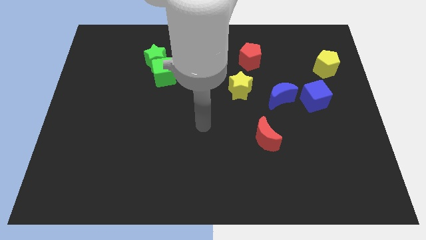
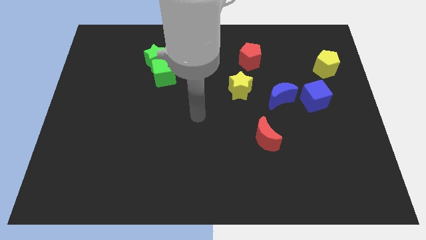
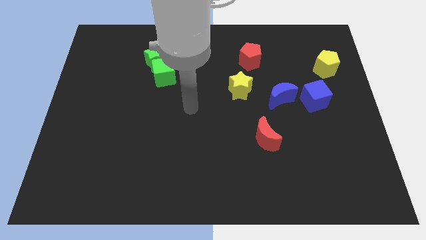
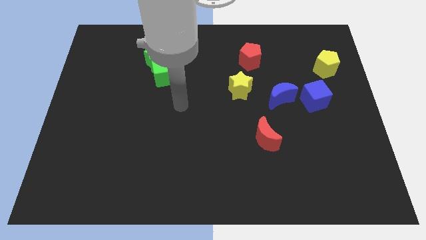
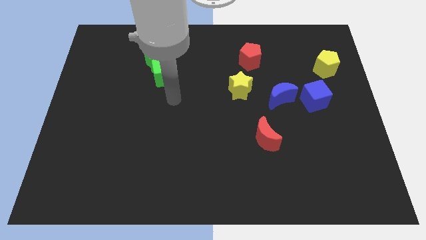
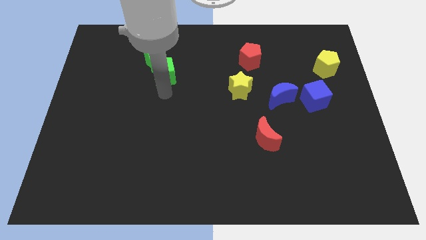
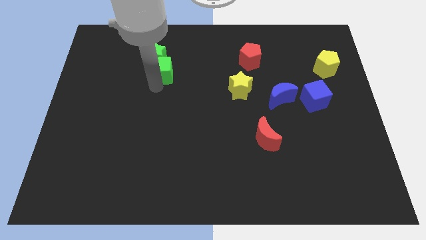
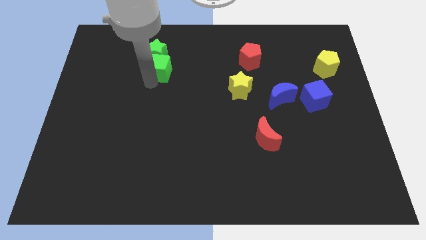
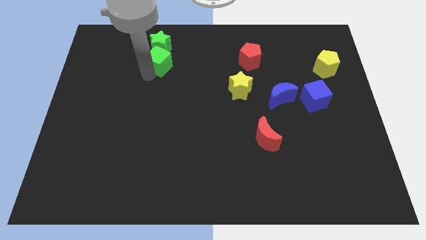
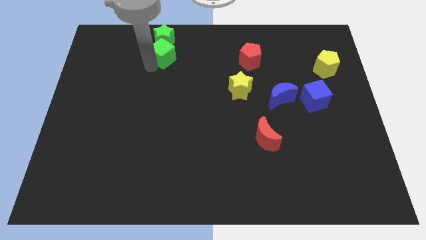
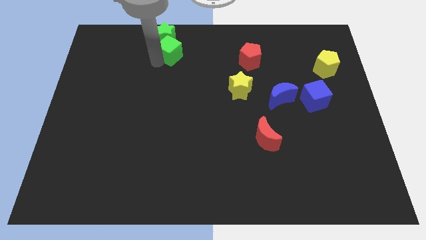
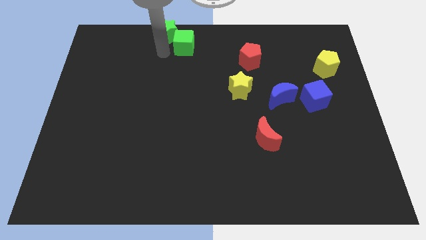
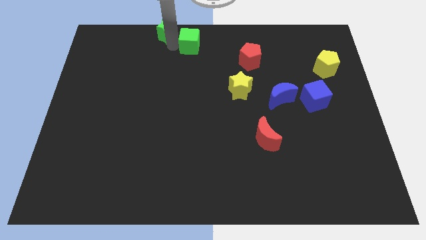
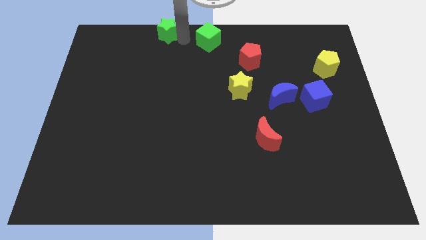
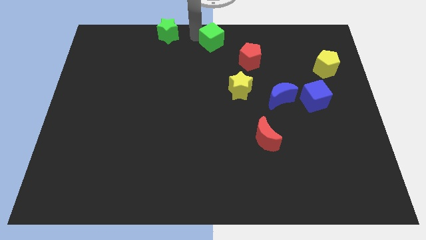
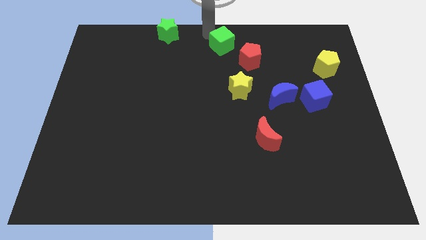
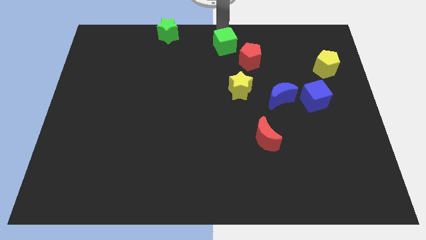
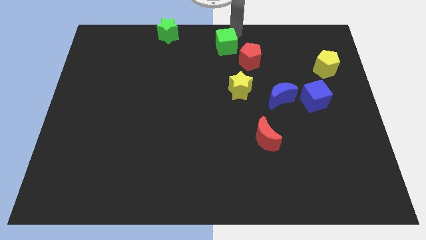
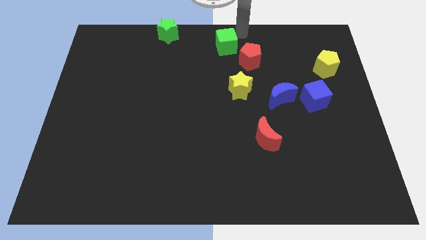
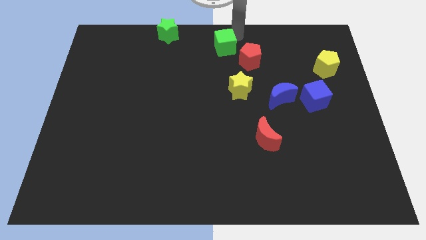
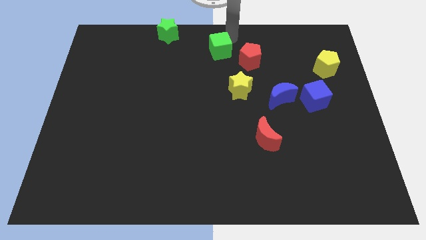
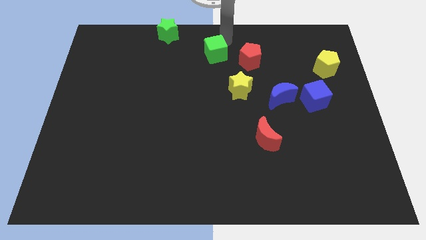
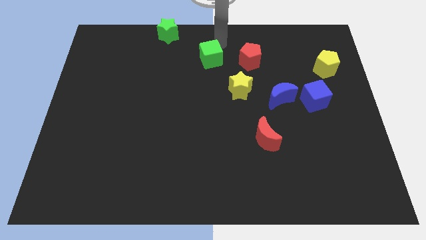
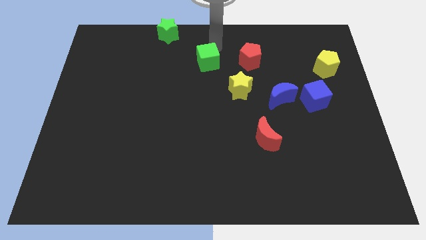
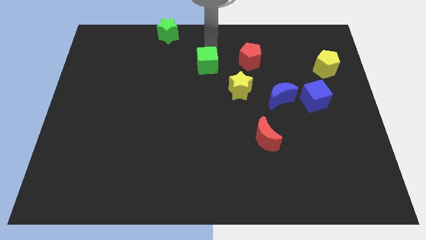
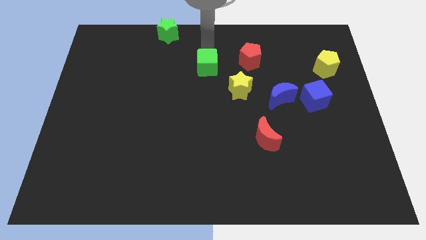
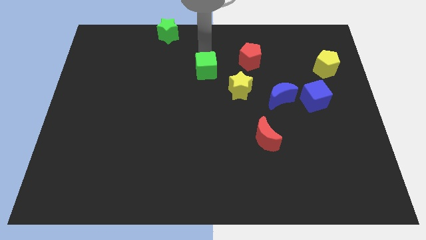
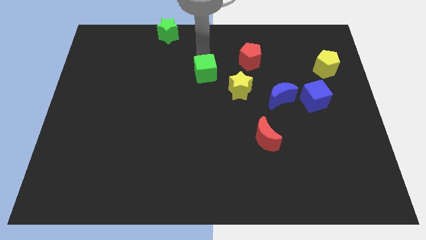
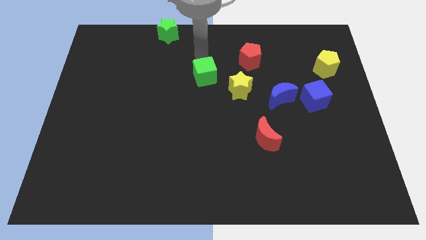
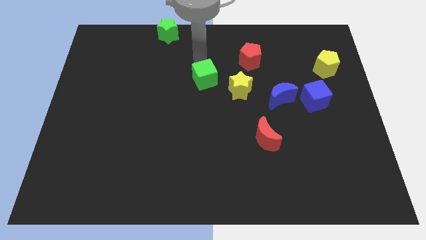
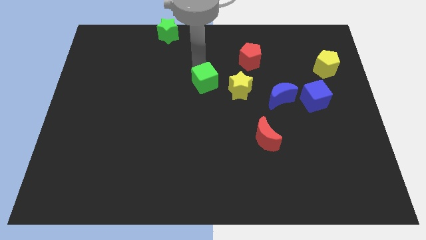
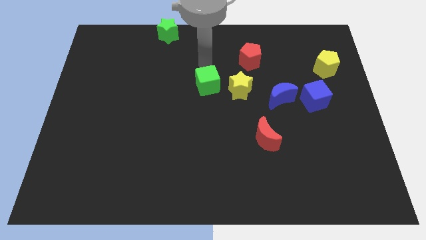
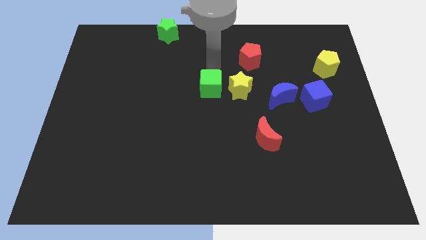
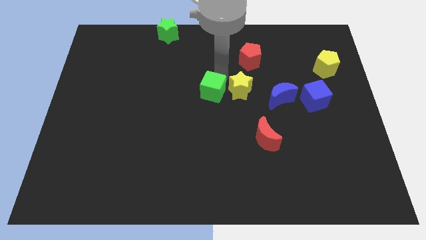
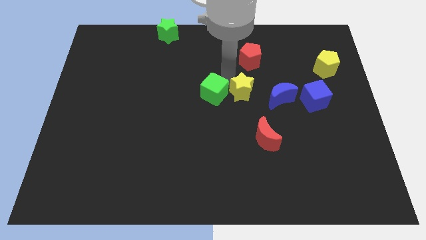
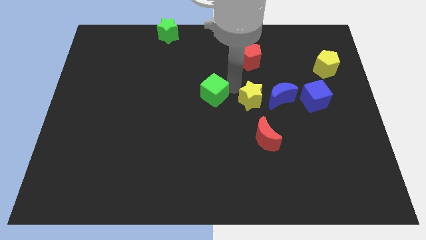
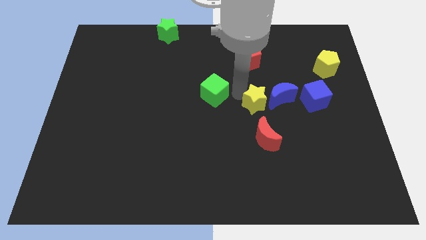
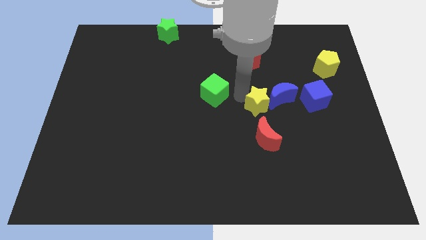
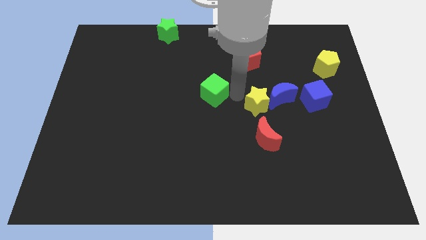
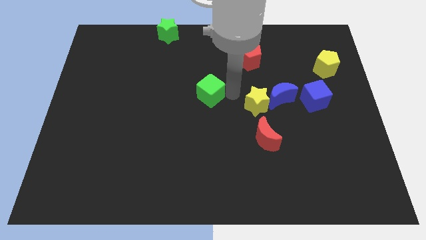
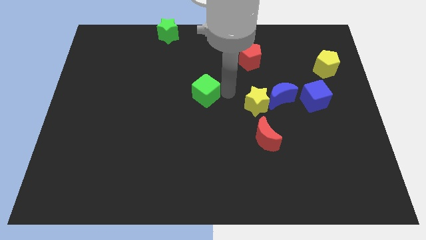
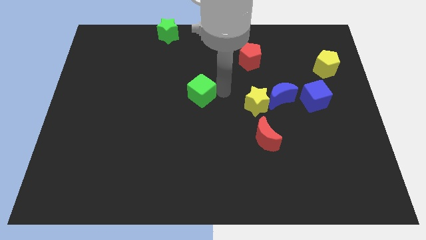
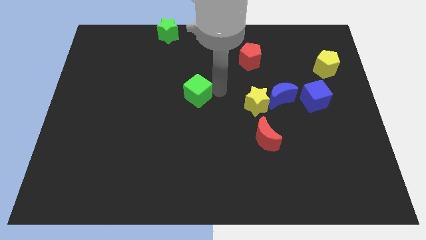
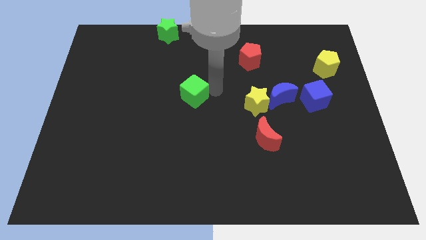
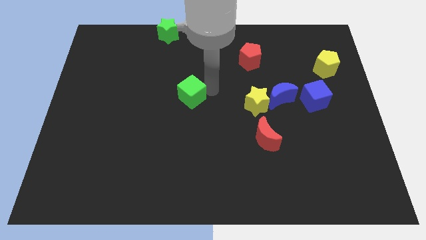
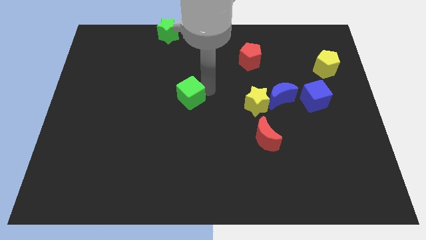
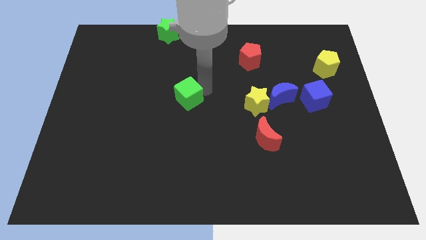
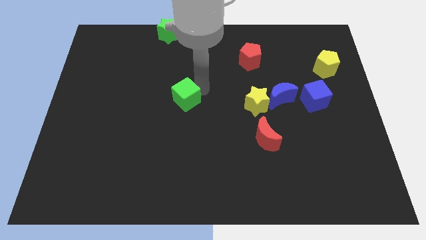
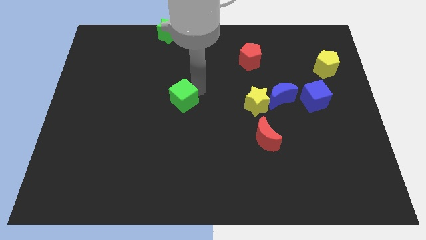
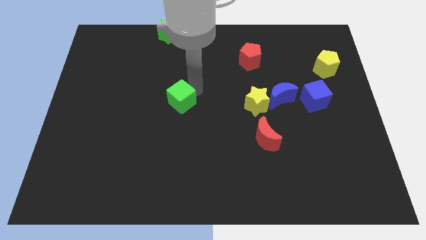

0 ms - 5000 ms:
slide the green cube downwards somewhat

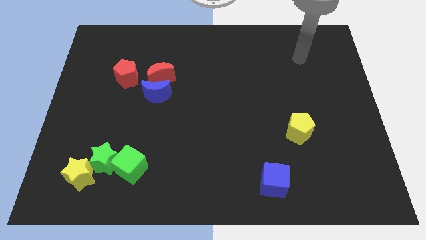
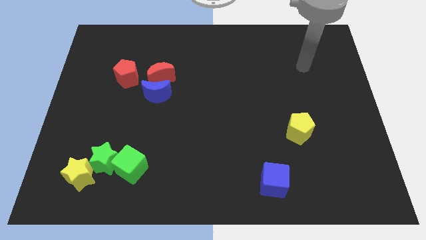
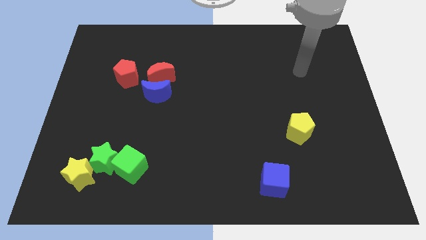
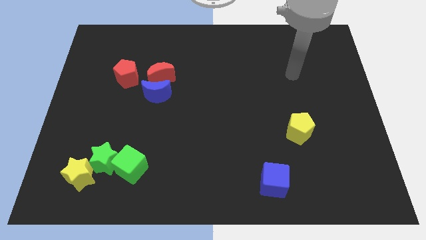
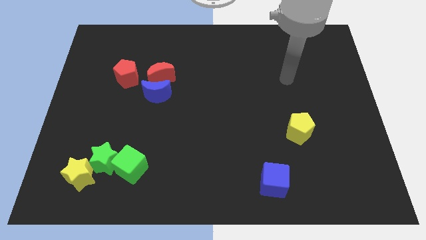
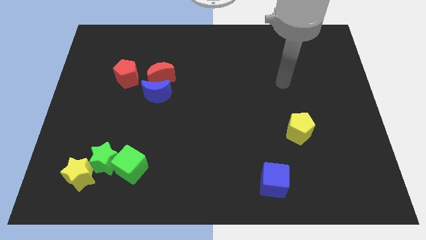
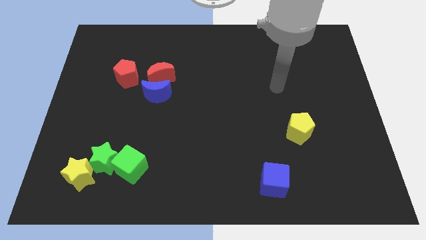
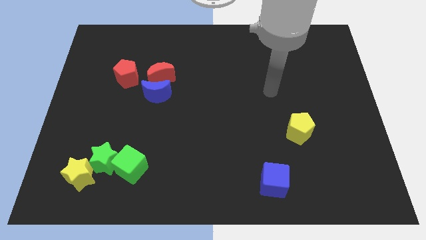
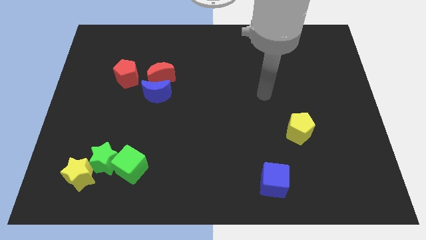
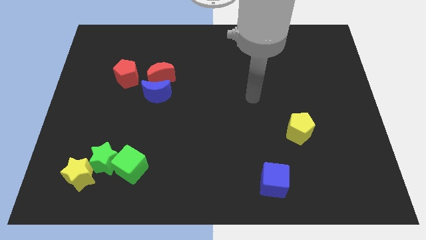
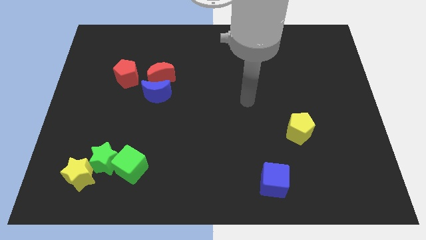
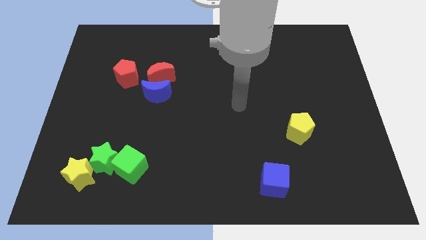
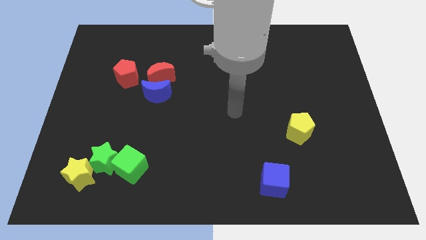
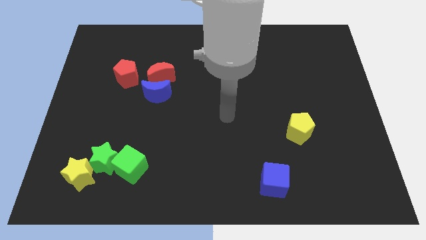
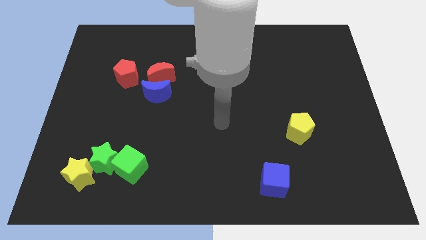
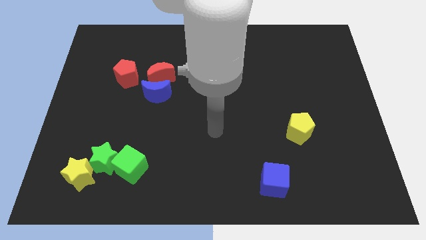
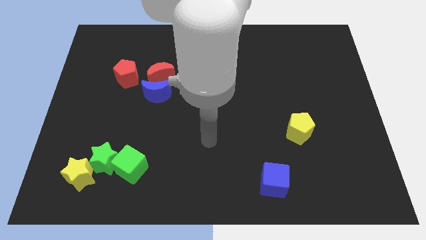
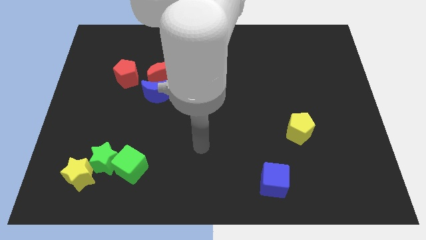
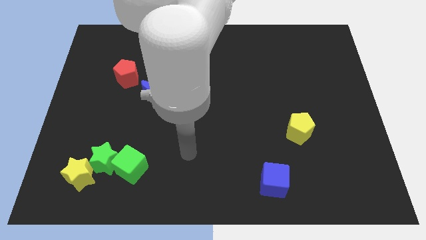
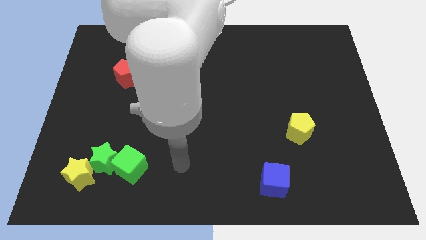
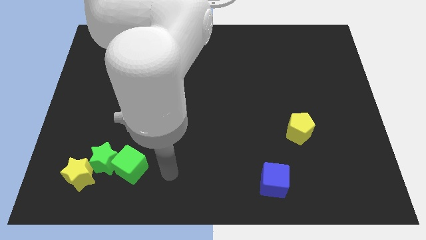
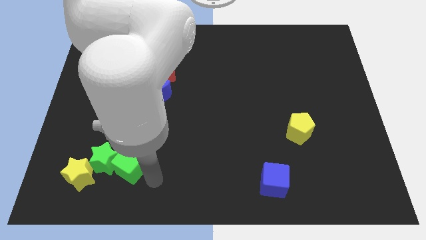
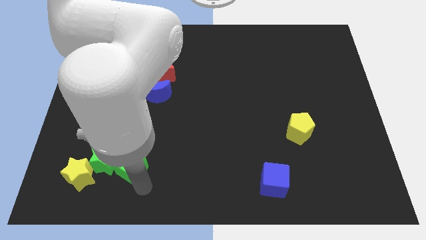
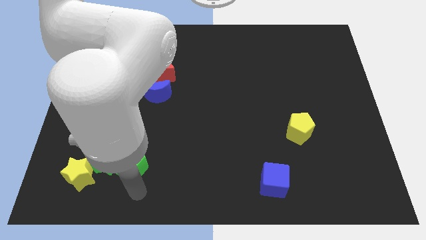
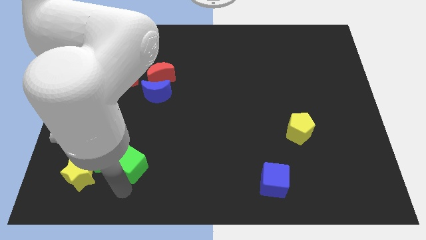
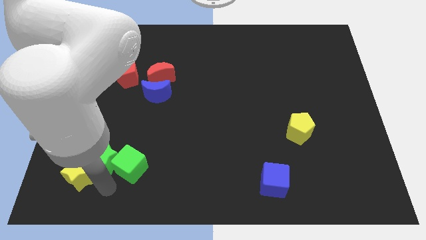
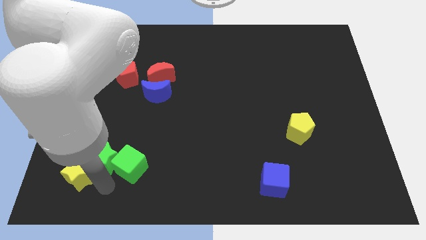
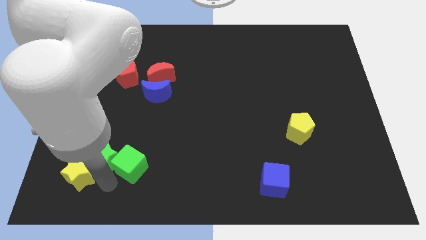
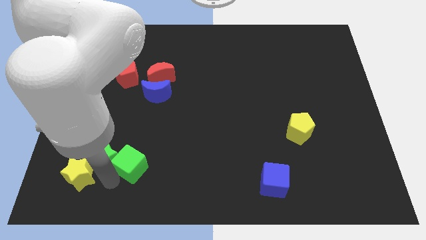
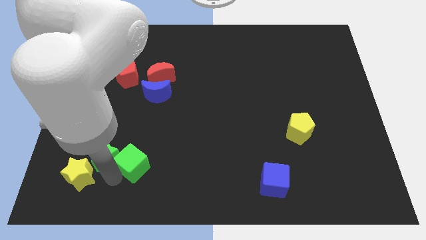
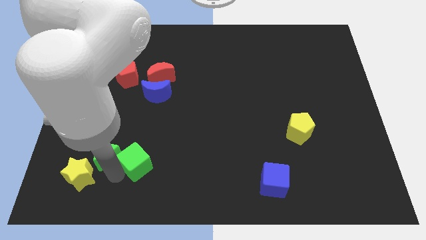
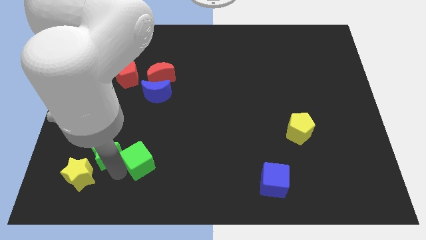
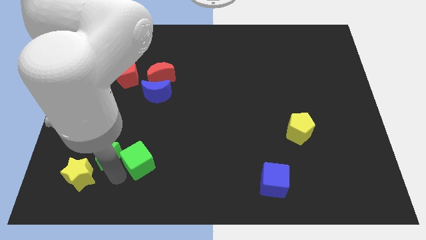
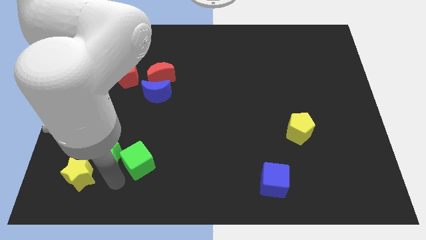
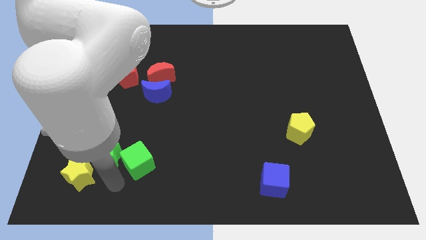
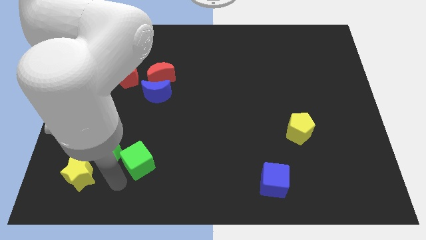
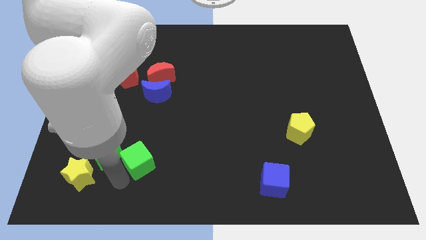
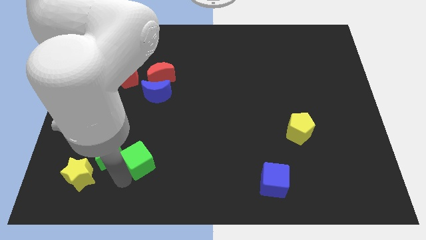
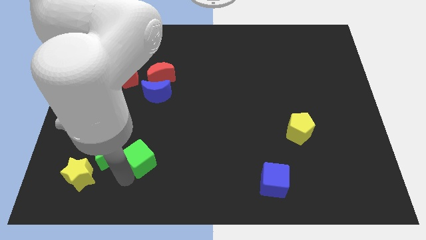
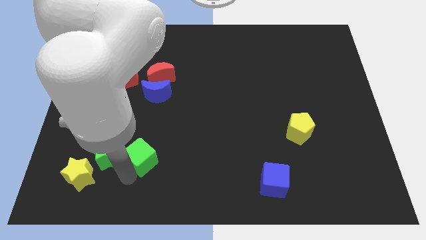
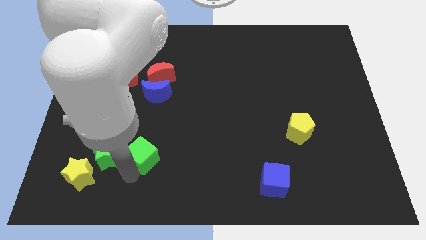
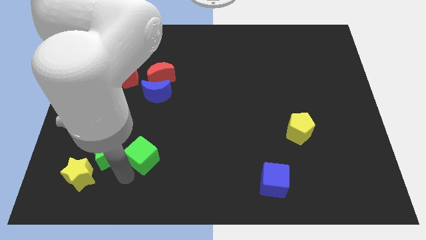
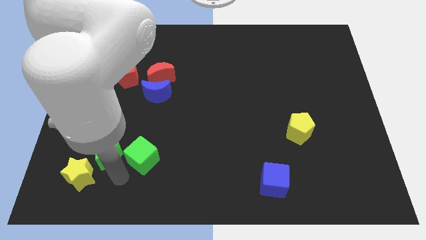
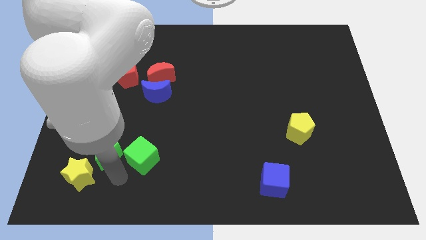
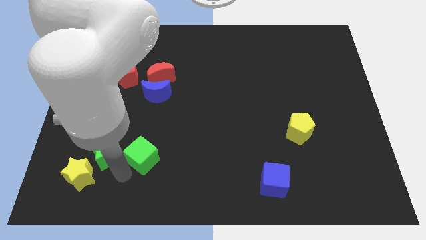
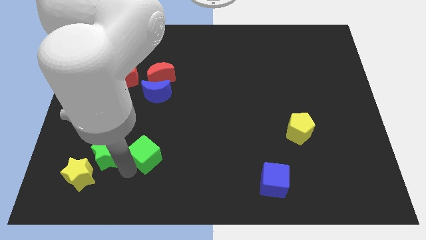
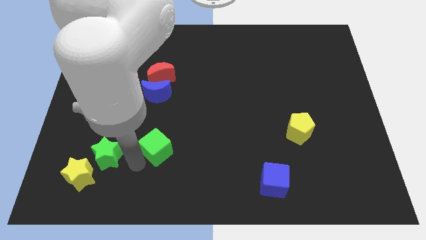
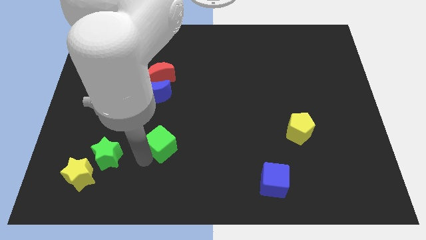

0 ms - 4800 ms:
slightly push the green cube up and right diagonally
